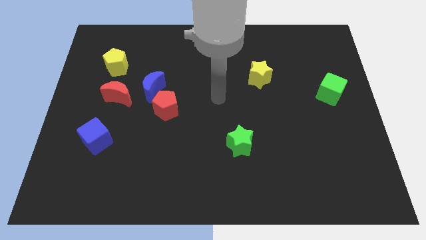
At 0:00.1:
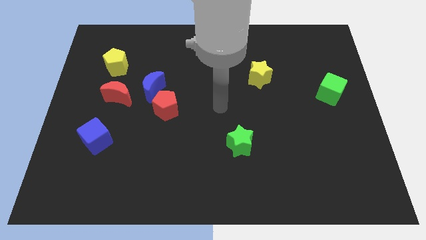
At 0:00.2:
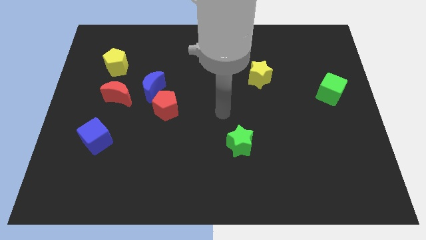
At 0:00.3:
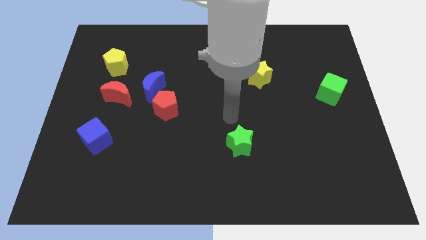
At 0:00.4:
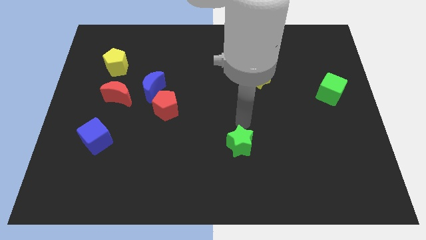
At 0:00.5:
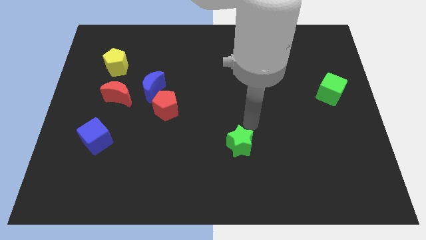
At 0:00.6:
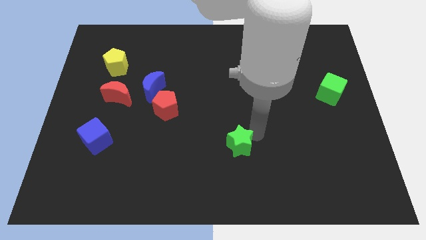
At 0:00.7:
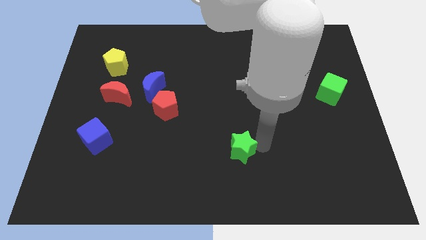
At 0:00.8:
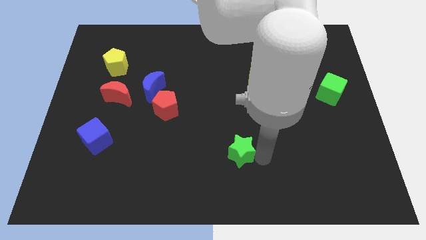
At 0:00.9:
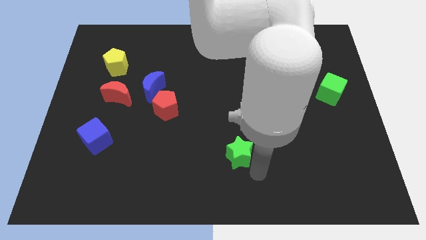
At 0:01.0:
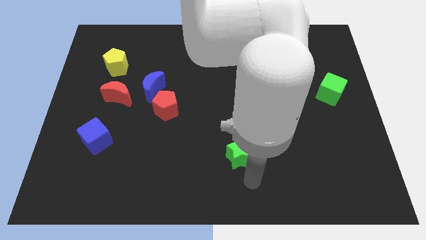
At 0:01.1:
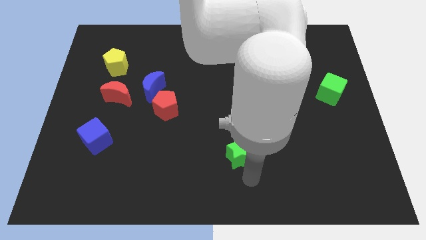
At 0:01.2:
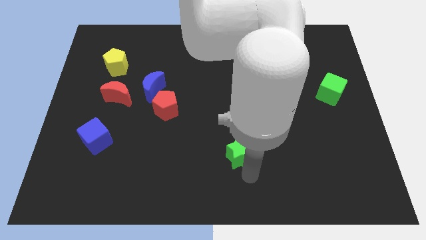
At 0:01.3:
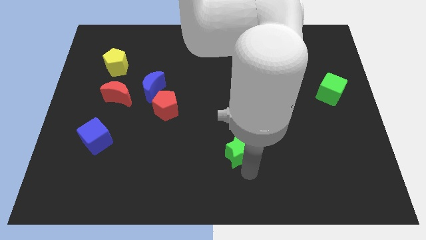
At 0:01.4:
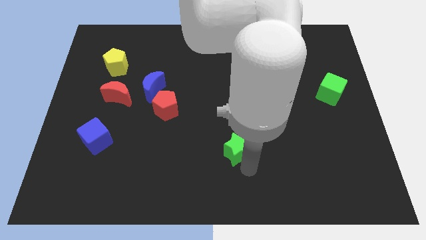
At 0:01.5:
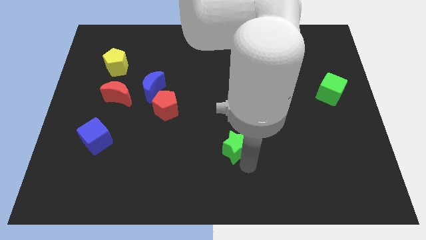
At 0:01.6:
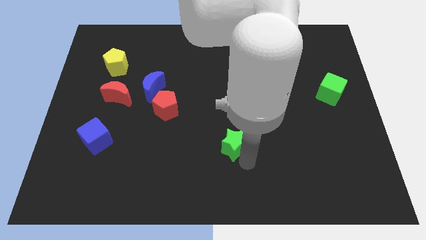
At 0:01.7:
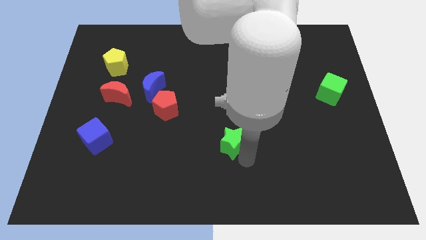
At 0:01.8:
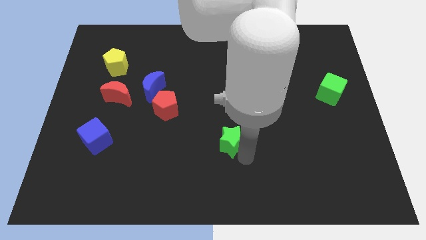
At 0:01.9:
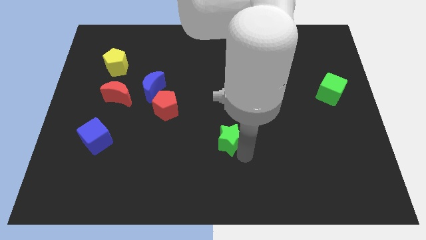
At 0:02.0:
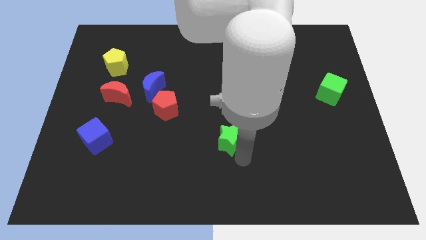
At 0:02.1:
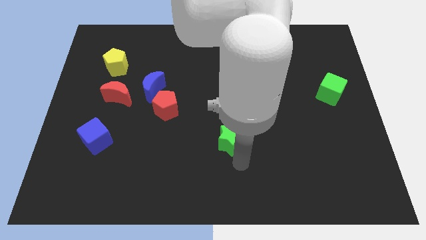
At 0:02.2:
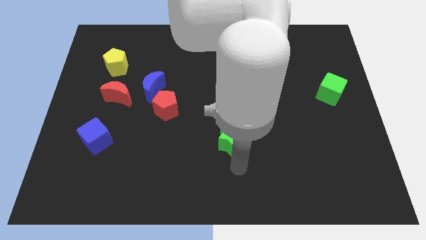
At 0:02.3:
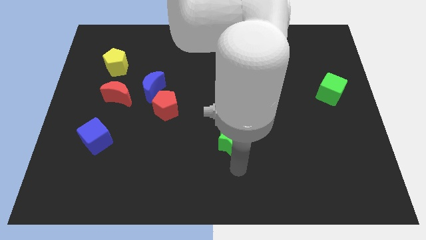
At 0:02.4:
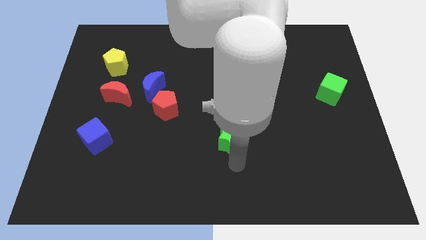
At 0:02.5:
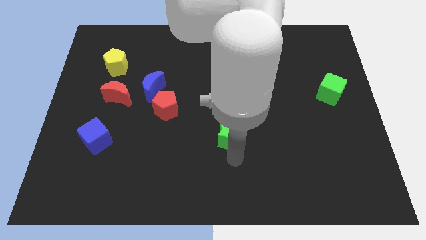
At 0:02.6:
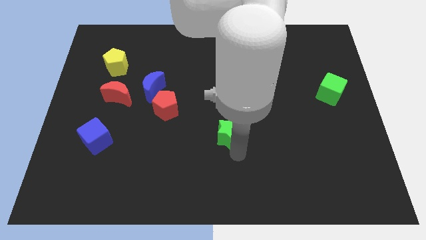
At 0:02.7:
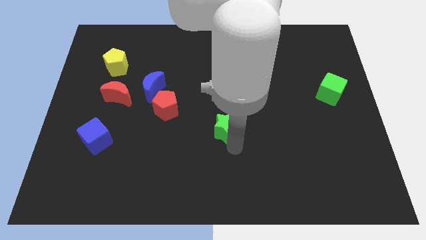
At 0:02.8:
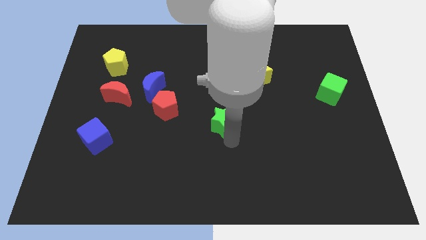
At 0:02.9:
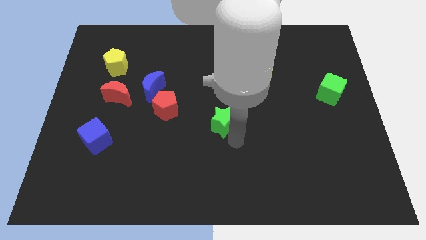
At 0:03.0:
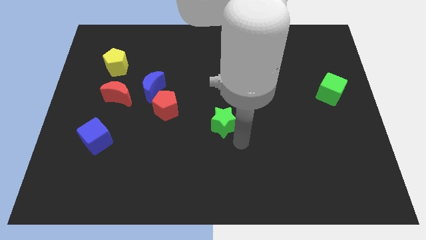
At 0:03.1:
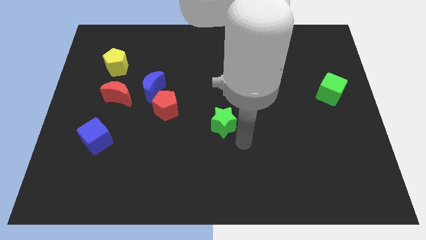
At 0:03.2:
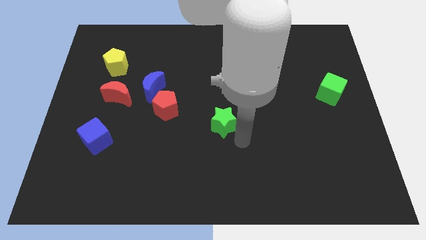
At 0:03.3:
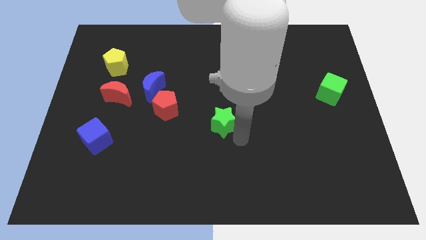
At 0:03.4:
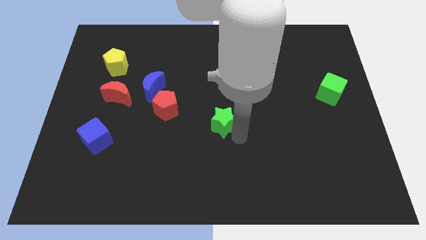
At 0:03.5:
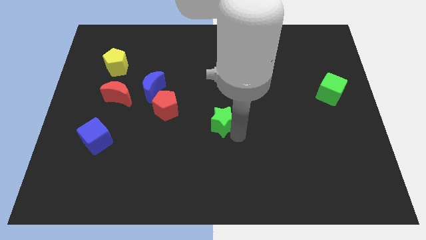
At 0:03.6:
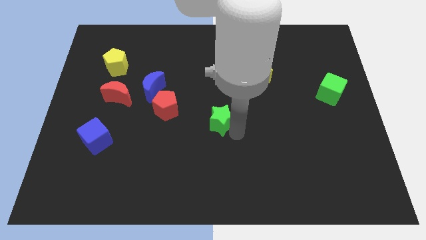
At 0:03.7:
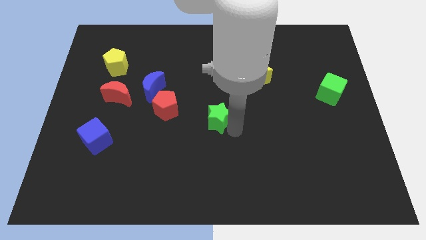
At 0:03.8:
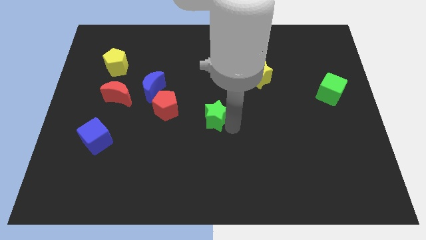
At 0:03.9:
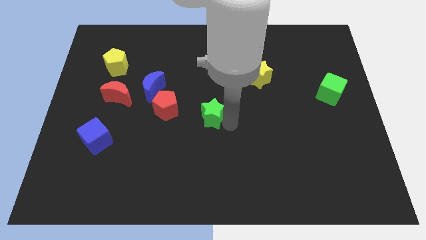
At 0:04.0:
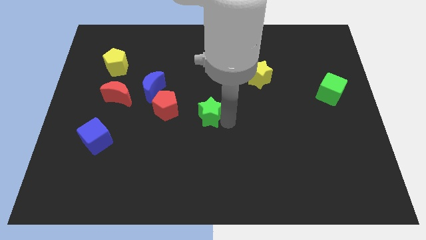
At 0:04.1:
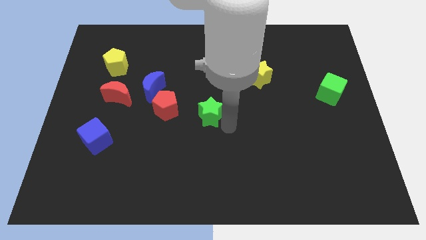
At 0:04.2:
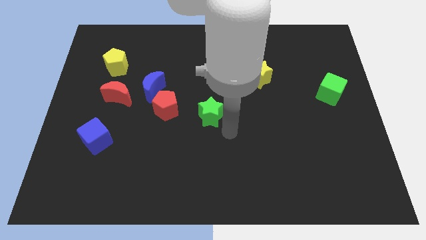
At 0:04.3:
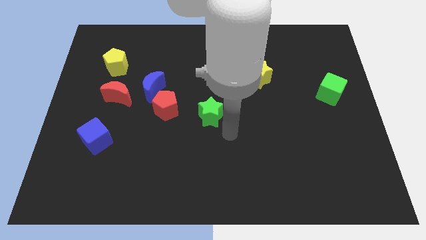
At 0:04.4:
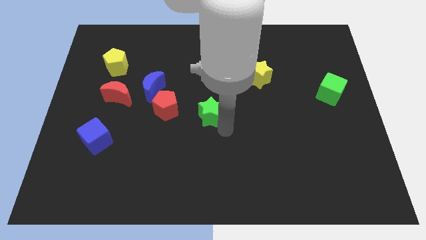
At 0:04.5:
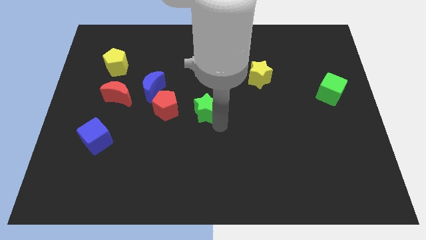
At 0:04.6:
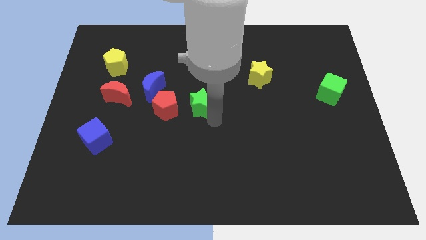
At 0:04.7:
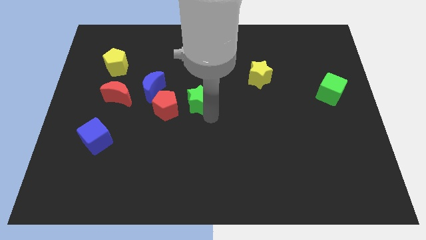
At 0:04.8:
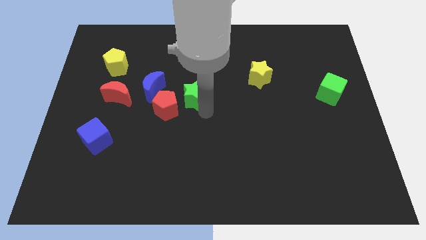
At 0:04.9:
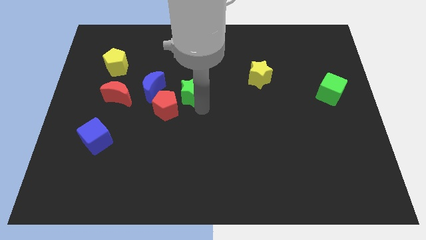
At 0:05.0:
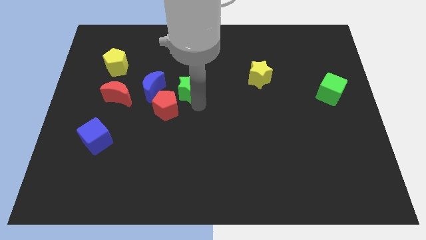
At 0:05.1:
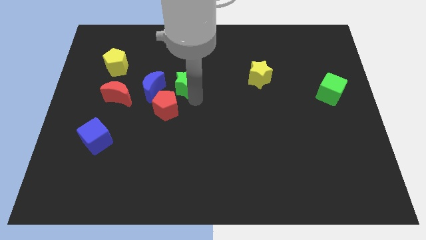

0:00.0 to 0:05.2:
move the green star up and to the left diagonally

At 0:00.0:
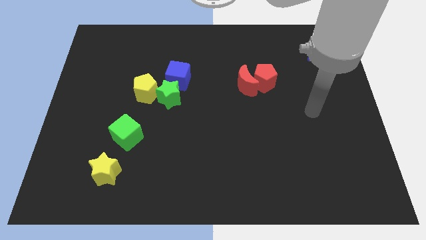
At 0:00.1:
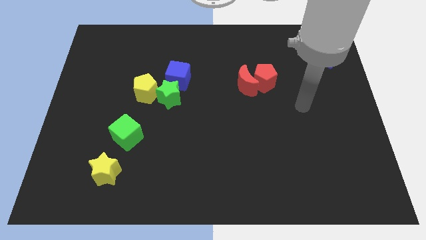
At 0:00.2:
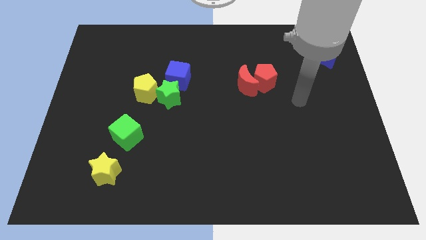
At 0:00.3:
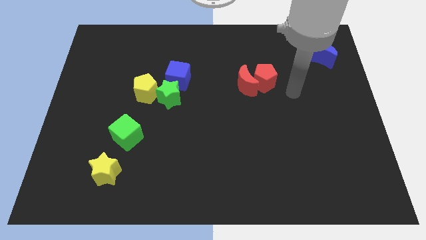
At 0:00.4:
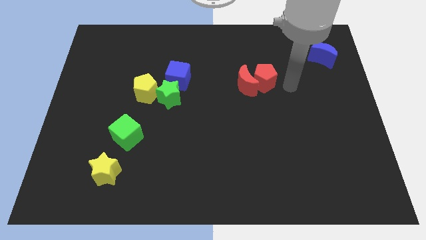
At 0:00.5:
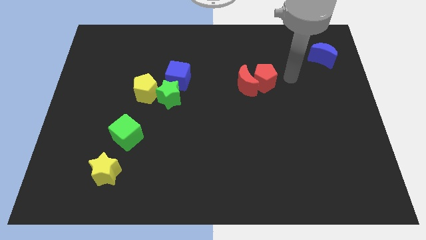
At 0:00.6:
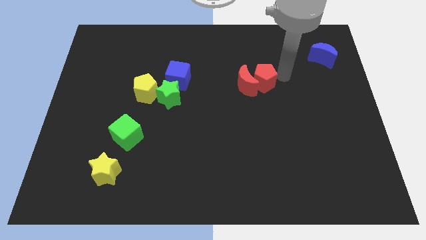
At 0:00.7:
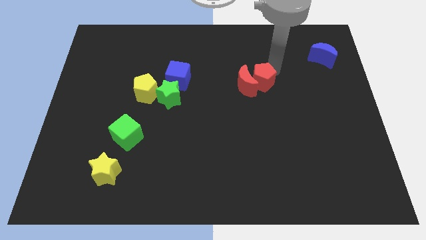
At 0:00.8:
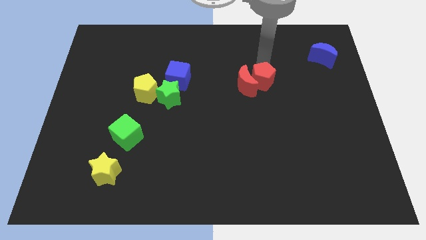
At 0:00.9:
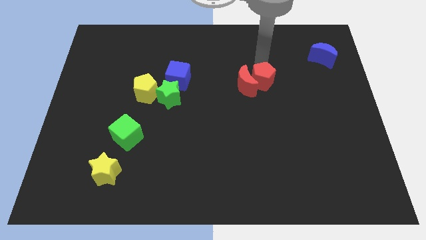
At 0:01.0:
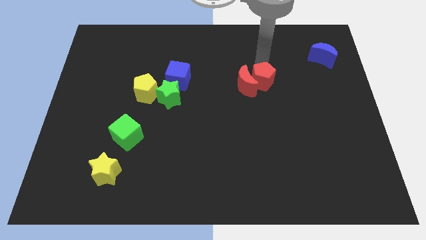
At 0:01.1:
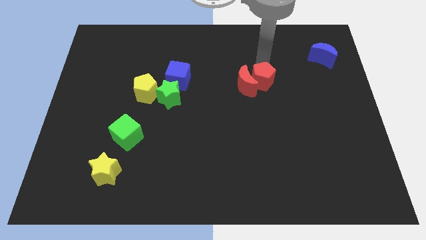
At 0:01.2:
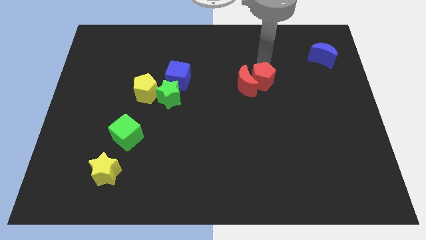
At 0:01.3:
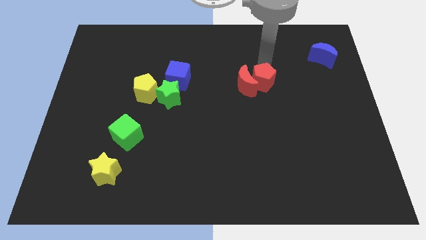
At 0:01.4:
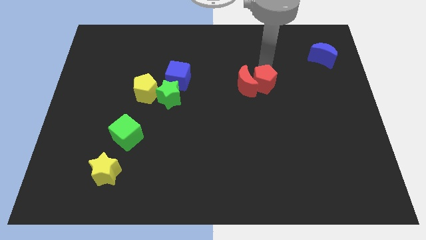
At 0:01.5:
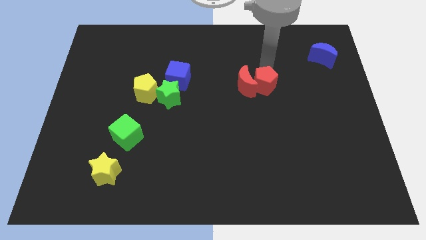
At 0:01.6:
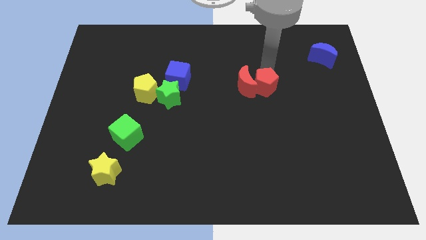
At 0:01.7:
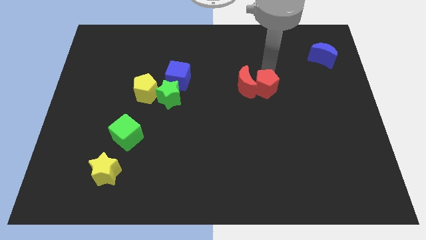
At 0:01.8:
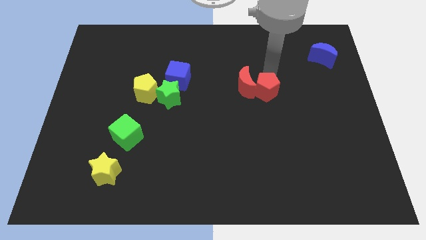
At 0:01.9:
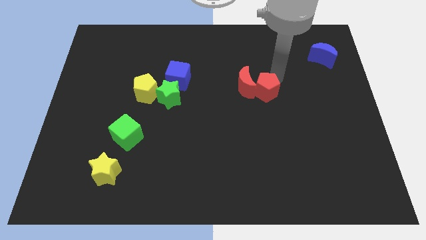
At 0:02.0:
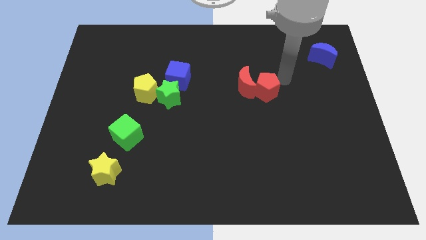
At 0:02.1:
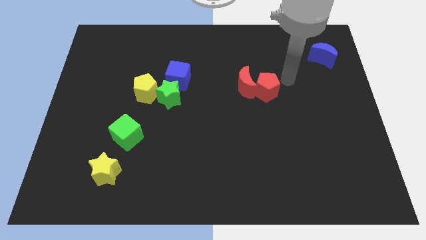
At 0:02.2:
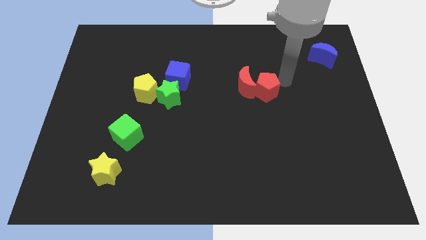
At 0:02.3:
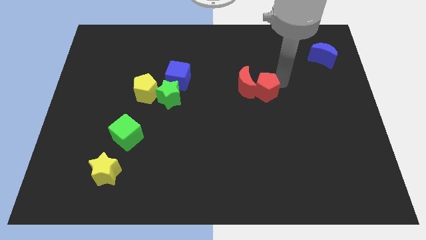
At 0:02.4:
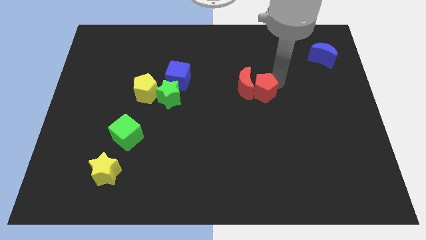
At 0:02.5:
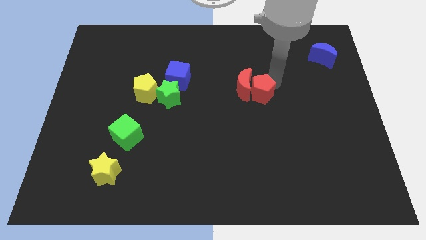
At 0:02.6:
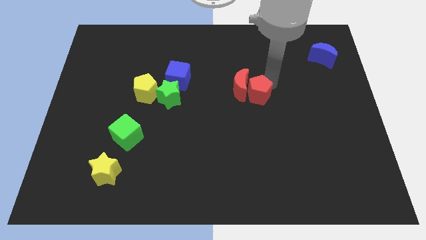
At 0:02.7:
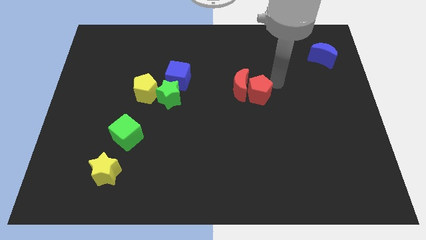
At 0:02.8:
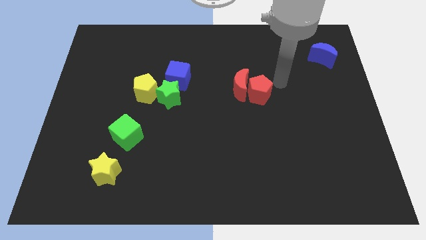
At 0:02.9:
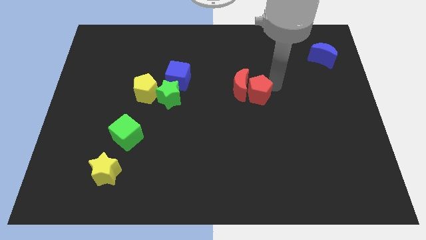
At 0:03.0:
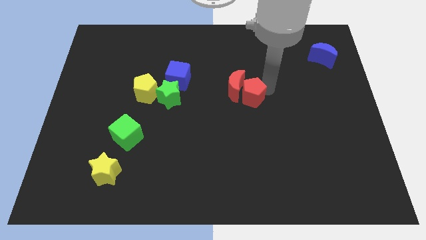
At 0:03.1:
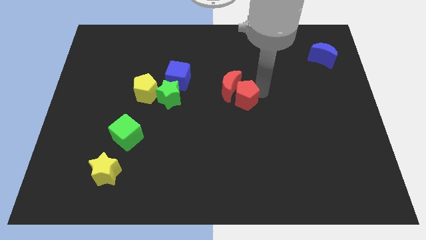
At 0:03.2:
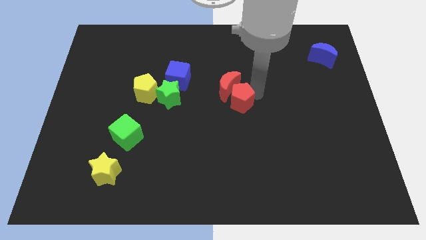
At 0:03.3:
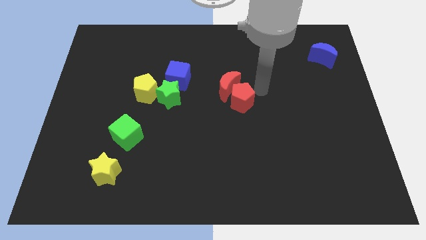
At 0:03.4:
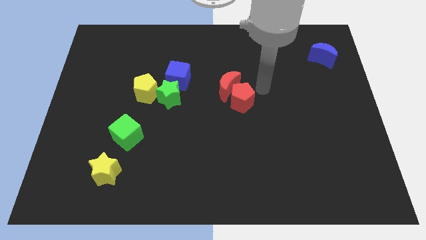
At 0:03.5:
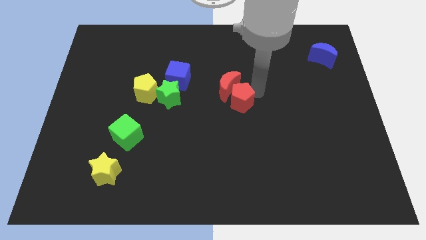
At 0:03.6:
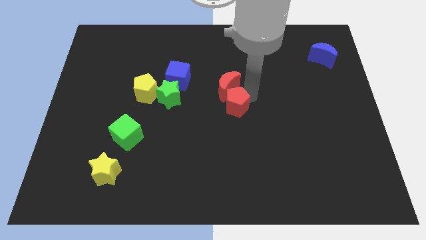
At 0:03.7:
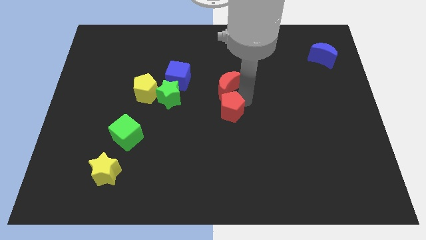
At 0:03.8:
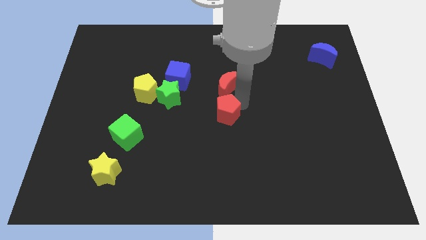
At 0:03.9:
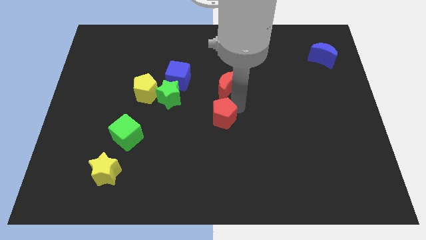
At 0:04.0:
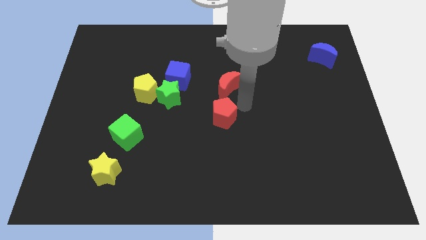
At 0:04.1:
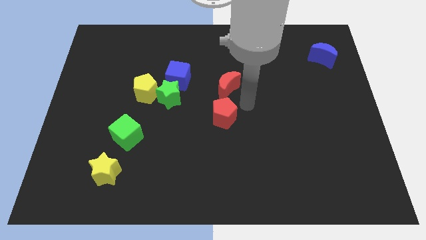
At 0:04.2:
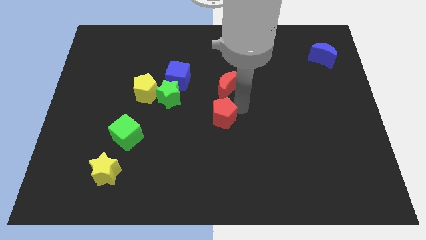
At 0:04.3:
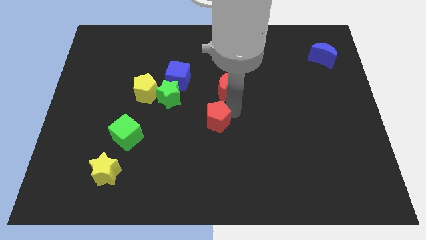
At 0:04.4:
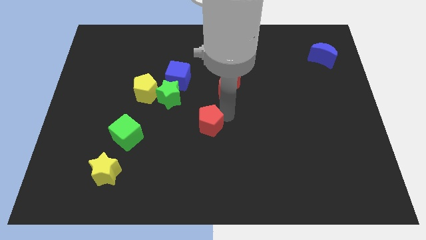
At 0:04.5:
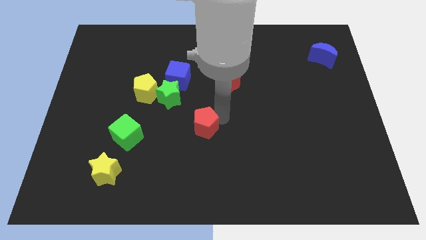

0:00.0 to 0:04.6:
push the red pentagon downwards and to the left
